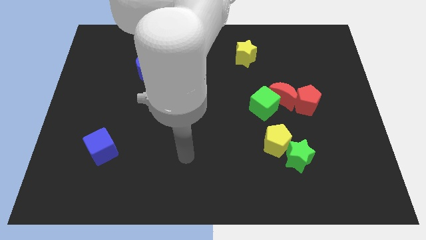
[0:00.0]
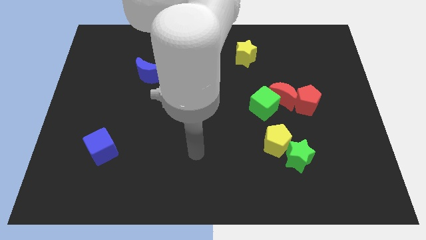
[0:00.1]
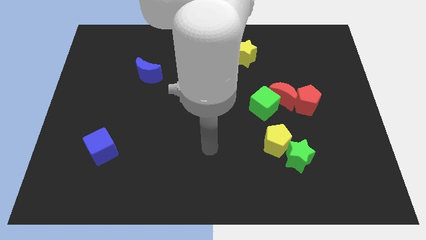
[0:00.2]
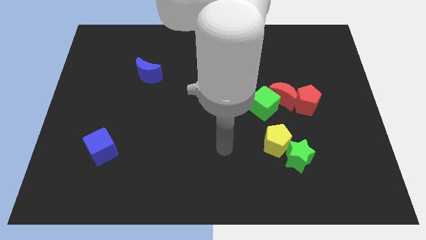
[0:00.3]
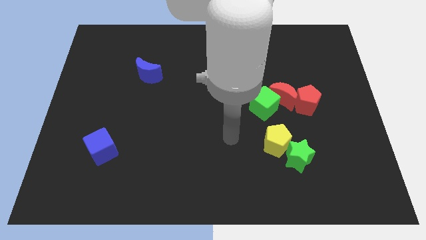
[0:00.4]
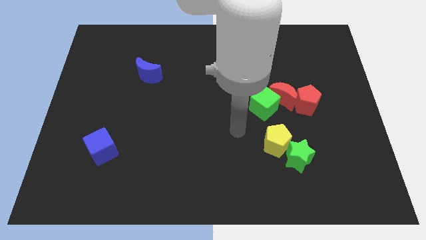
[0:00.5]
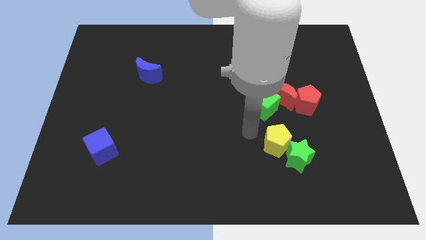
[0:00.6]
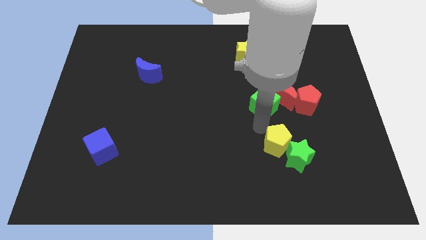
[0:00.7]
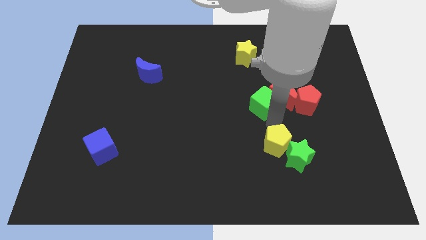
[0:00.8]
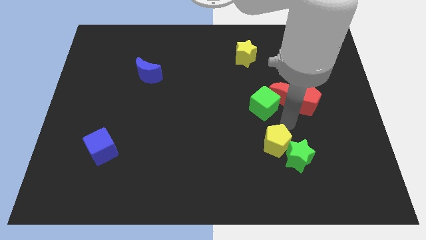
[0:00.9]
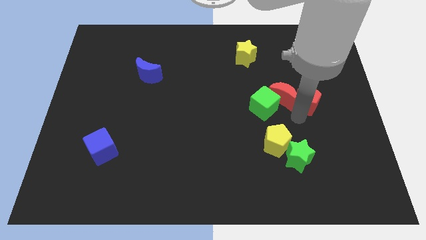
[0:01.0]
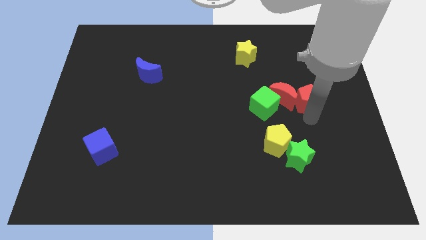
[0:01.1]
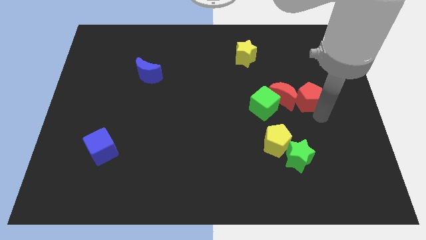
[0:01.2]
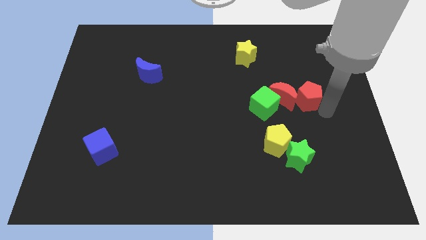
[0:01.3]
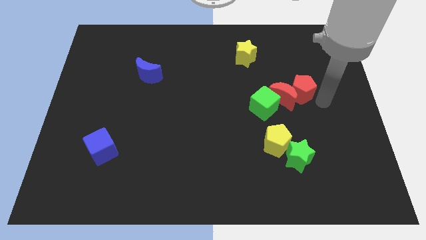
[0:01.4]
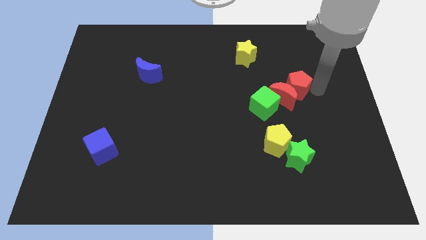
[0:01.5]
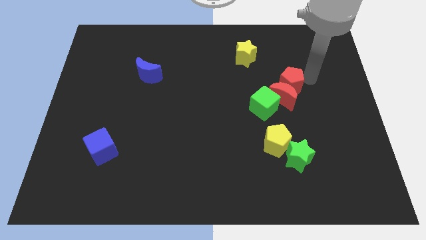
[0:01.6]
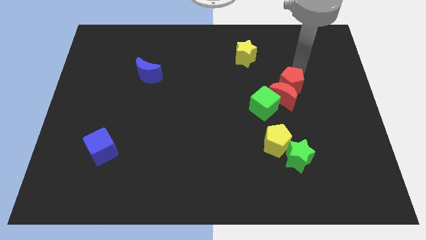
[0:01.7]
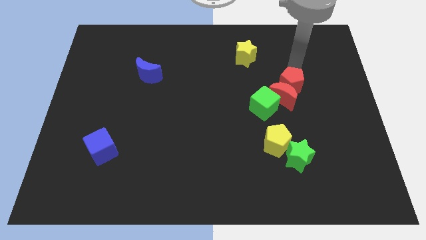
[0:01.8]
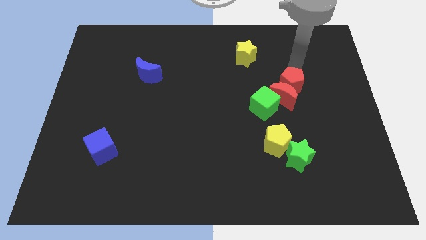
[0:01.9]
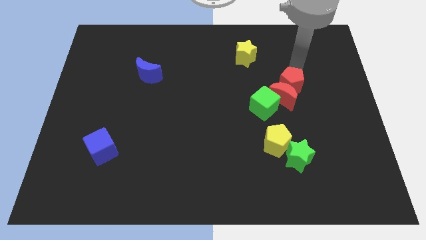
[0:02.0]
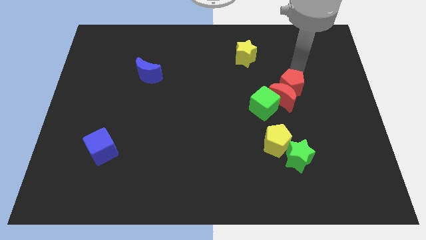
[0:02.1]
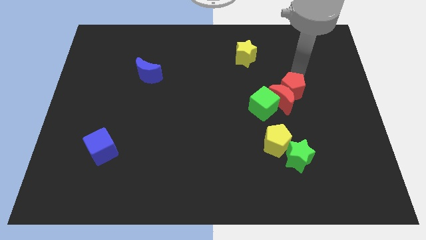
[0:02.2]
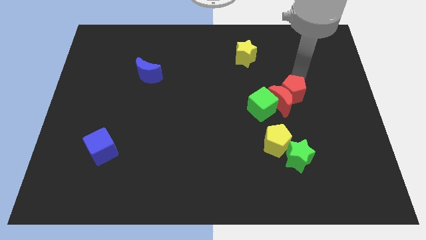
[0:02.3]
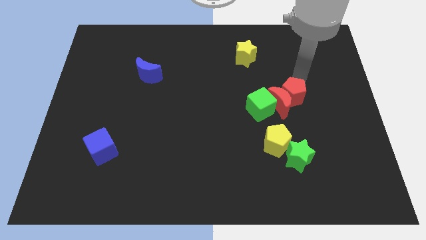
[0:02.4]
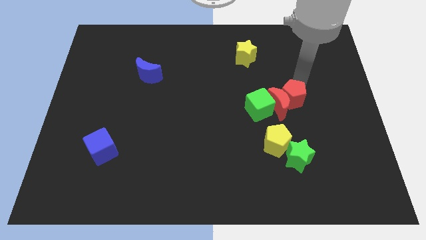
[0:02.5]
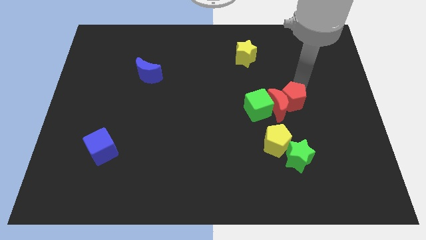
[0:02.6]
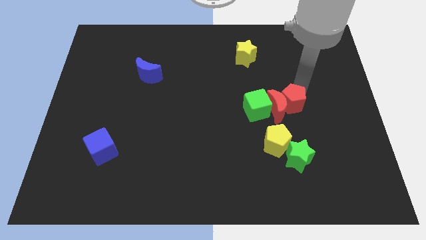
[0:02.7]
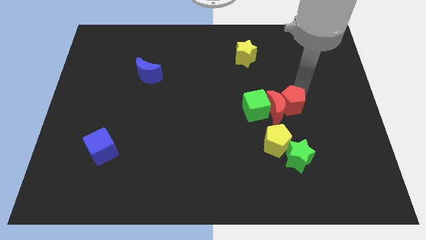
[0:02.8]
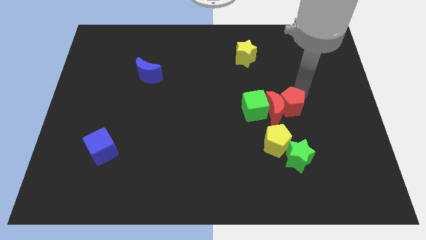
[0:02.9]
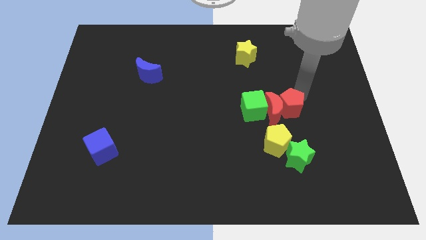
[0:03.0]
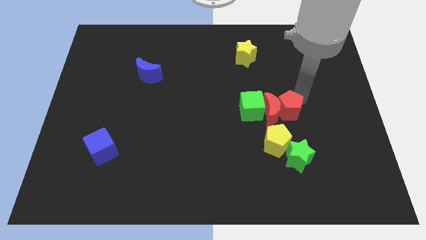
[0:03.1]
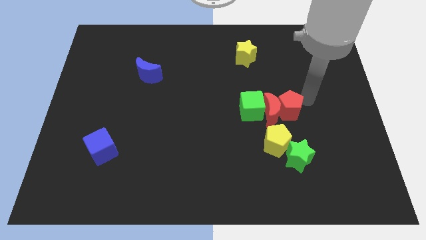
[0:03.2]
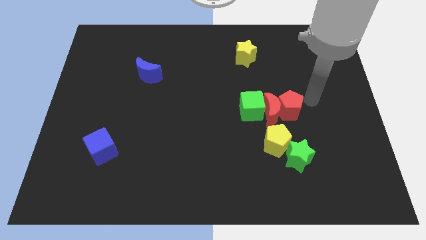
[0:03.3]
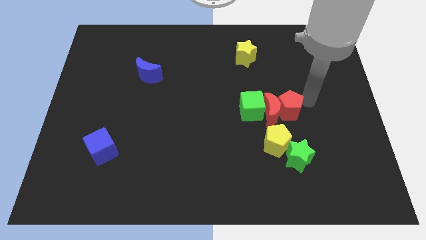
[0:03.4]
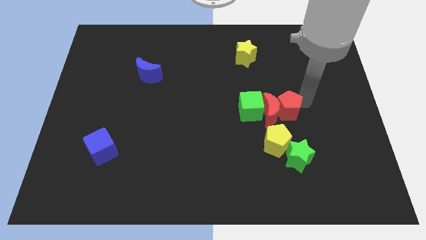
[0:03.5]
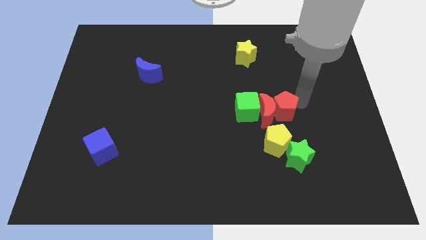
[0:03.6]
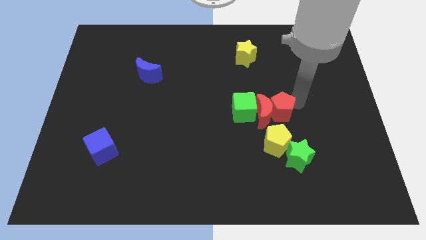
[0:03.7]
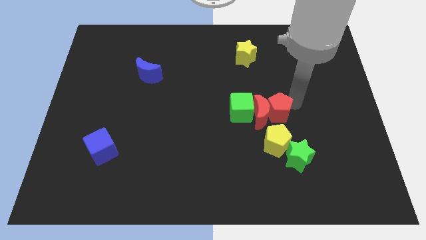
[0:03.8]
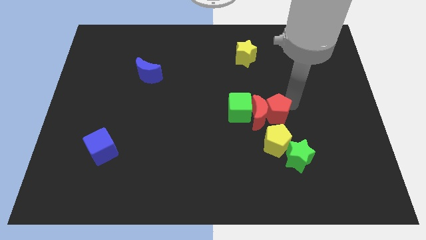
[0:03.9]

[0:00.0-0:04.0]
slide the red pentagon slightly left

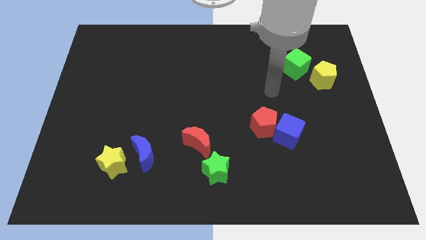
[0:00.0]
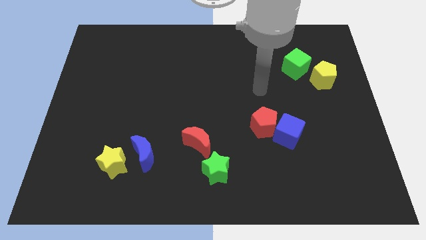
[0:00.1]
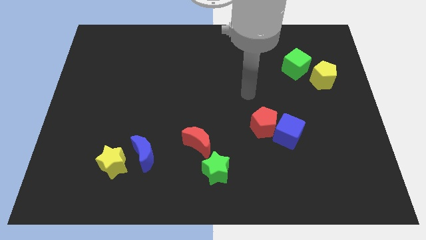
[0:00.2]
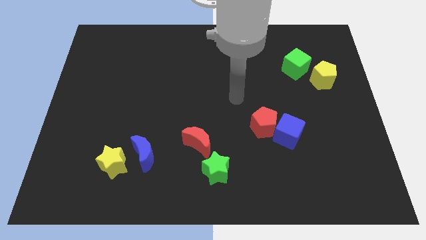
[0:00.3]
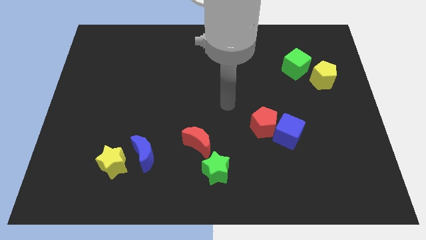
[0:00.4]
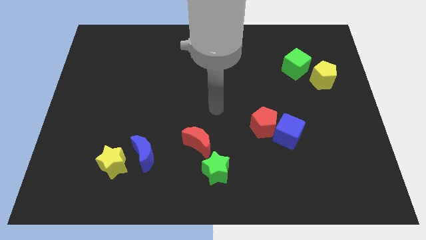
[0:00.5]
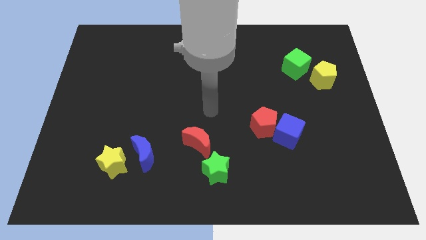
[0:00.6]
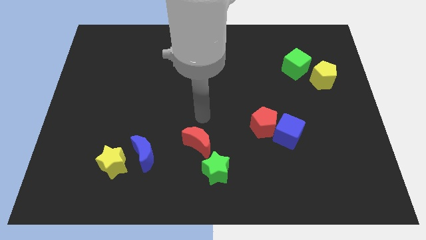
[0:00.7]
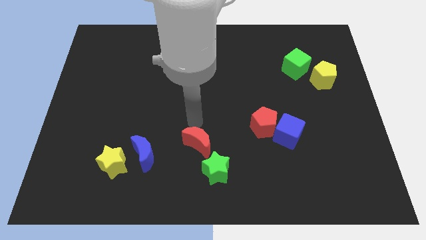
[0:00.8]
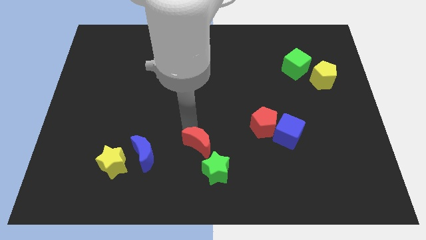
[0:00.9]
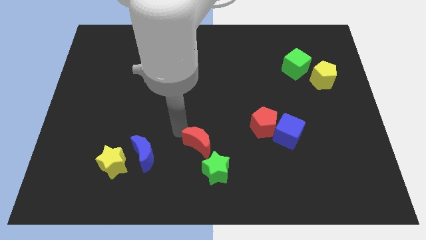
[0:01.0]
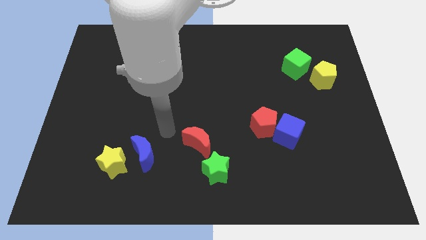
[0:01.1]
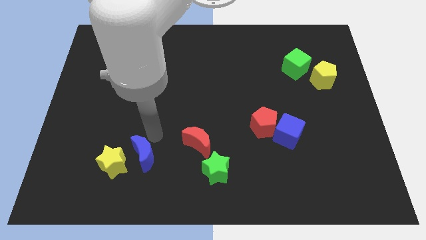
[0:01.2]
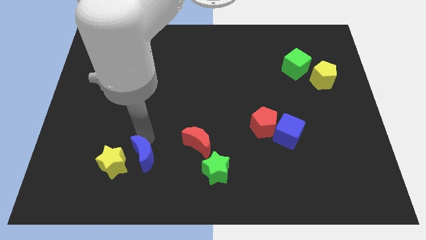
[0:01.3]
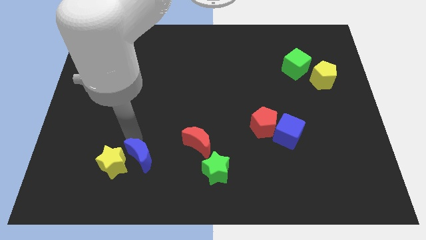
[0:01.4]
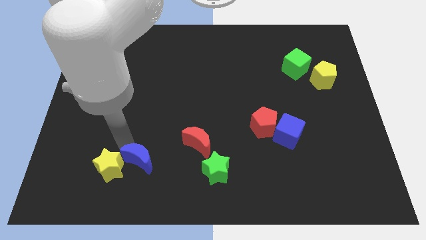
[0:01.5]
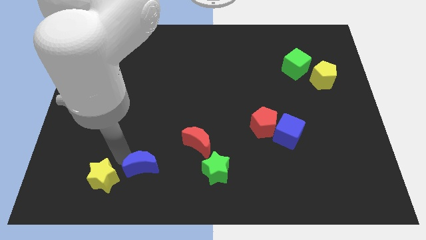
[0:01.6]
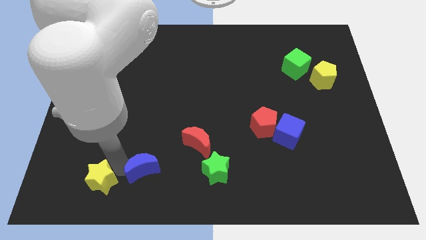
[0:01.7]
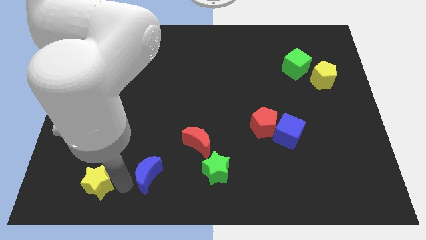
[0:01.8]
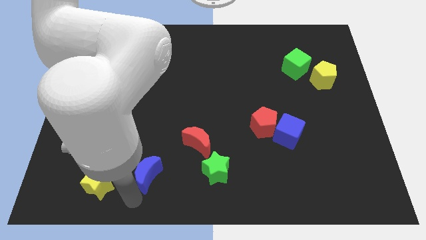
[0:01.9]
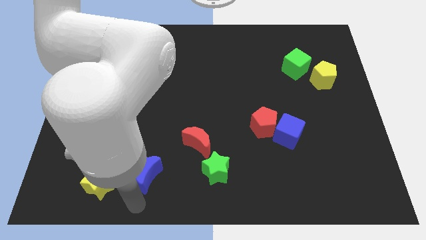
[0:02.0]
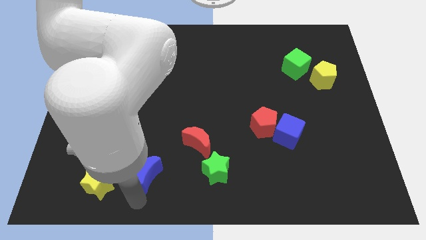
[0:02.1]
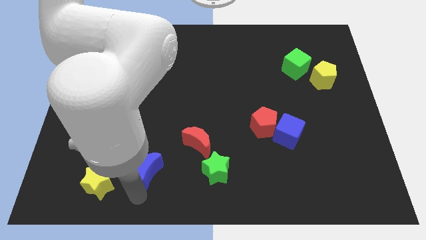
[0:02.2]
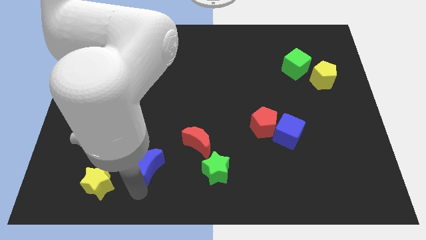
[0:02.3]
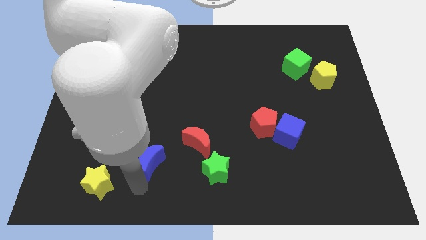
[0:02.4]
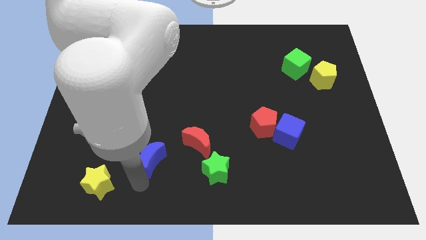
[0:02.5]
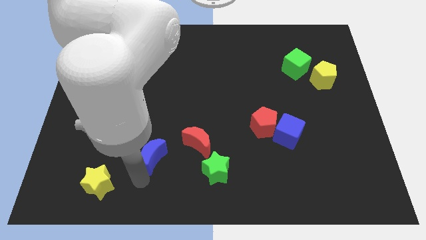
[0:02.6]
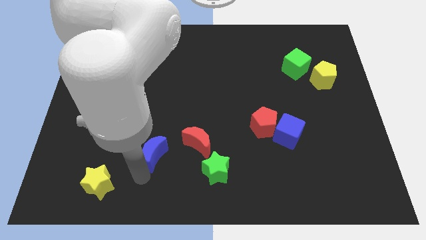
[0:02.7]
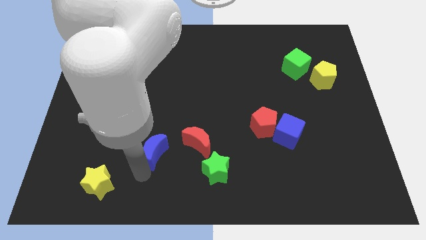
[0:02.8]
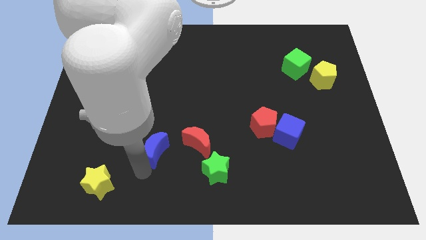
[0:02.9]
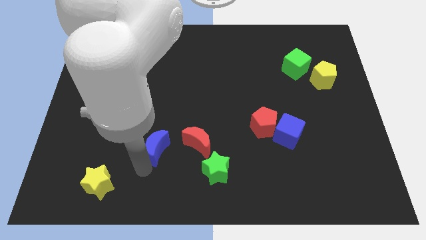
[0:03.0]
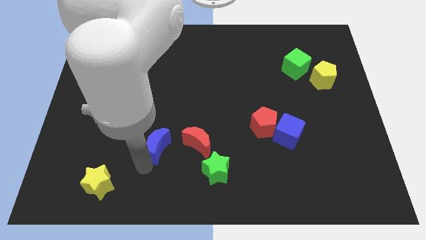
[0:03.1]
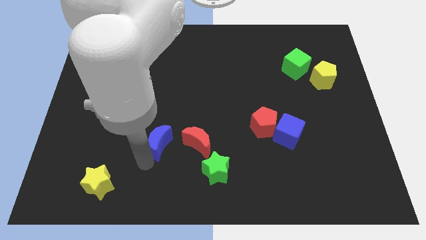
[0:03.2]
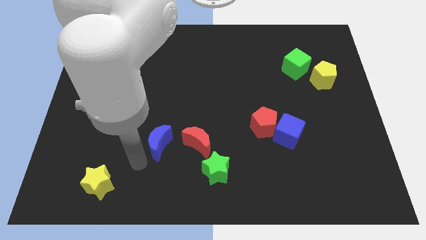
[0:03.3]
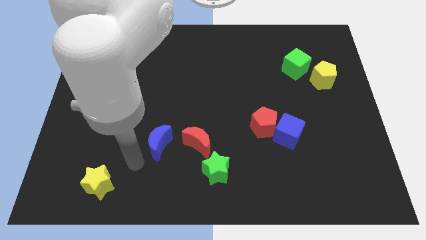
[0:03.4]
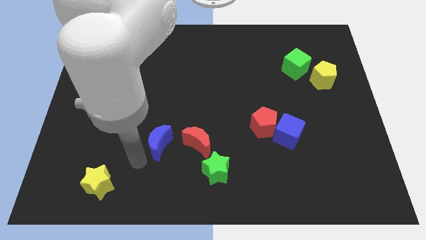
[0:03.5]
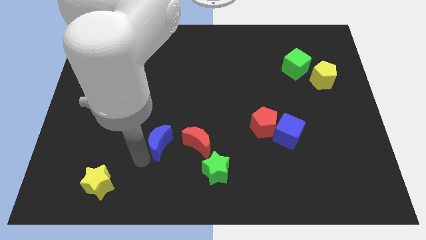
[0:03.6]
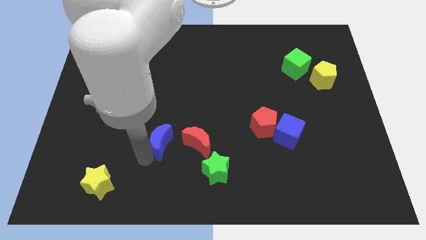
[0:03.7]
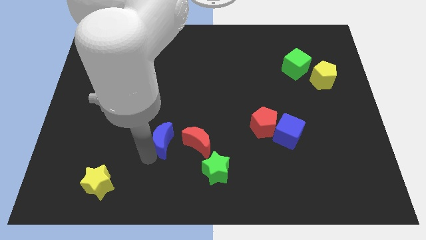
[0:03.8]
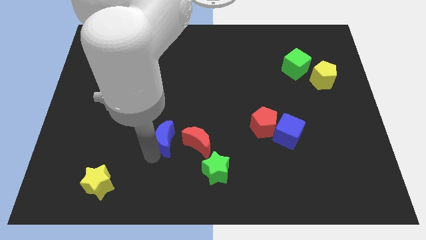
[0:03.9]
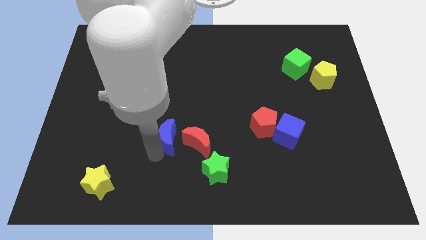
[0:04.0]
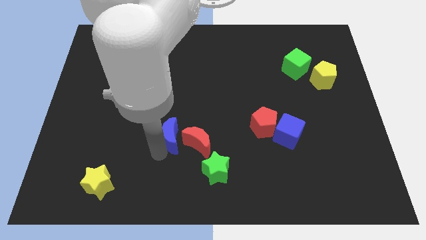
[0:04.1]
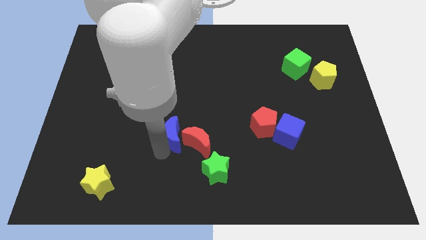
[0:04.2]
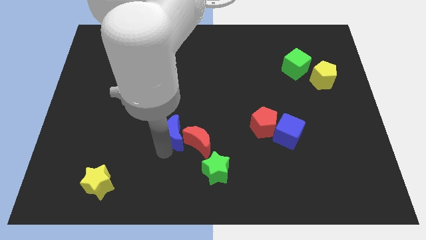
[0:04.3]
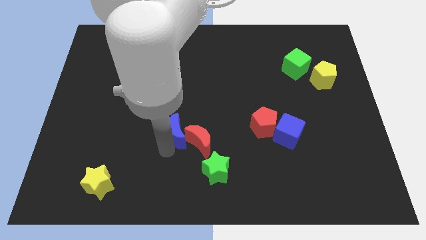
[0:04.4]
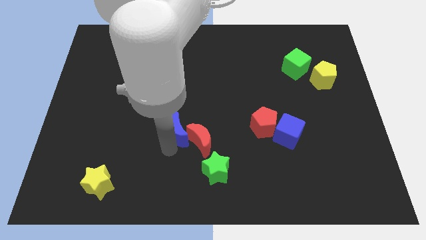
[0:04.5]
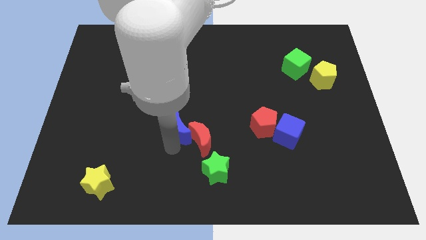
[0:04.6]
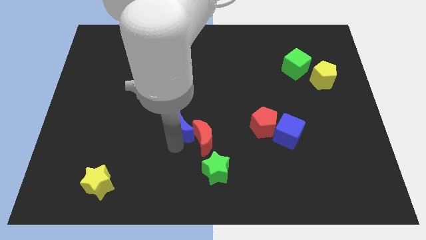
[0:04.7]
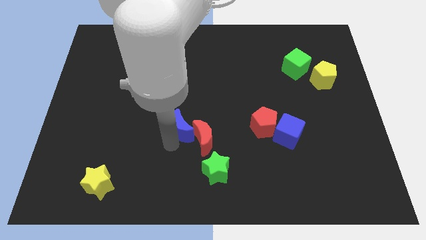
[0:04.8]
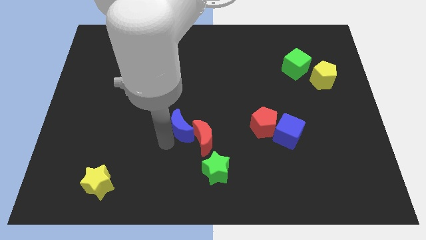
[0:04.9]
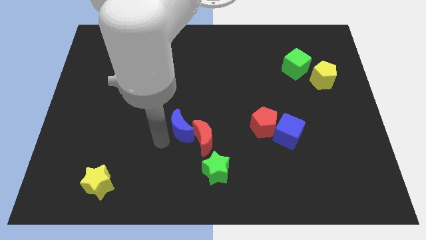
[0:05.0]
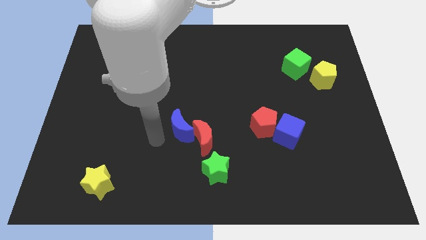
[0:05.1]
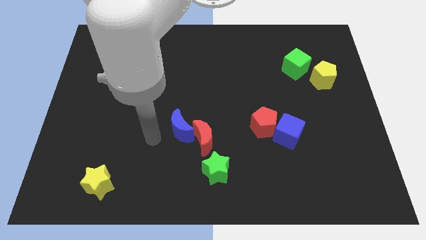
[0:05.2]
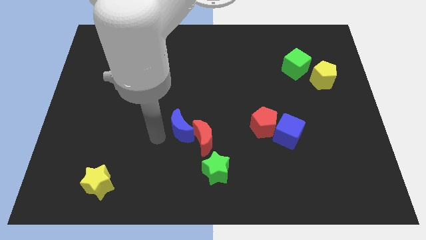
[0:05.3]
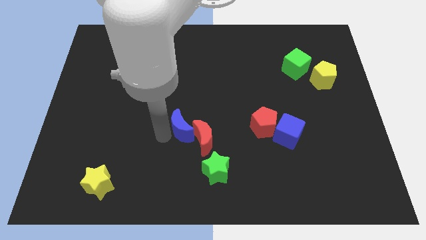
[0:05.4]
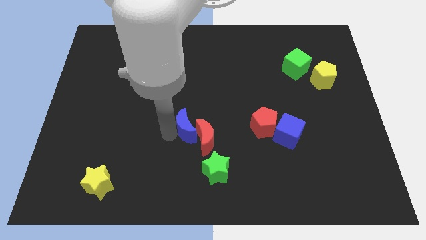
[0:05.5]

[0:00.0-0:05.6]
slide the blue moon a little to the right
